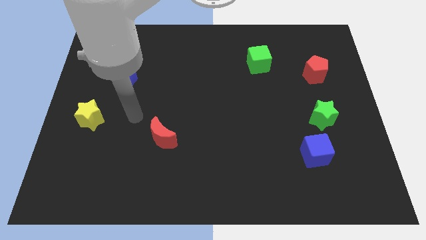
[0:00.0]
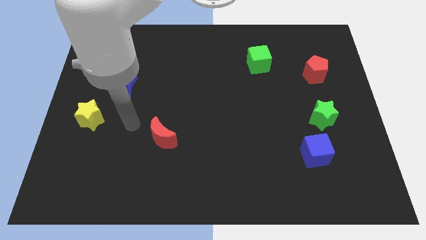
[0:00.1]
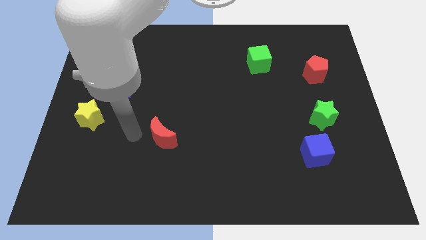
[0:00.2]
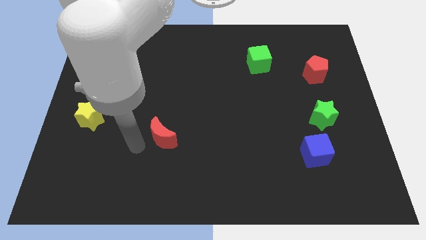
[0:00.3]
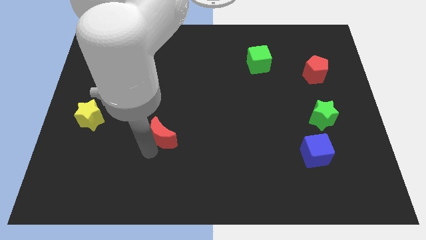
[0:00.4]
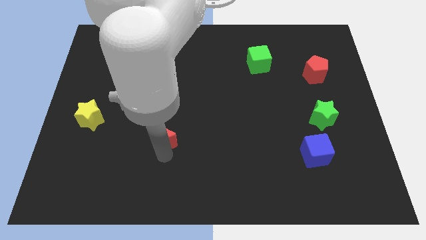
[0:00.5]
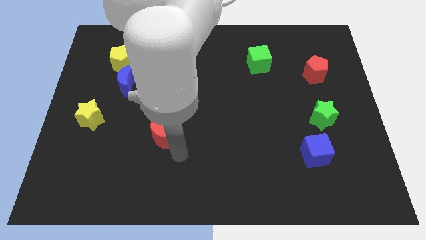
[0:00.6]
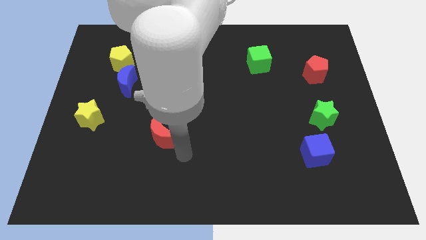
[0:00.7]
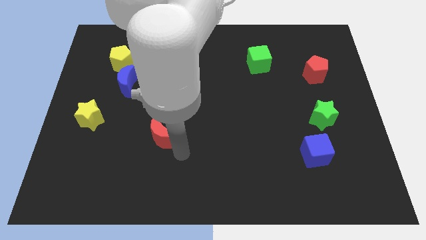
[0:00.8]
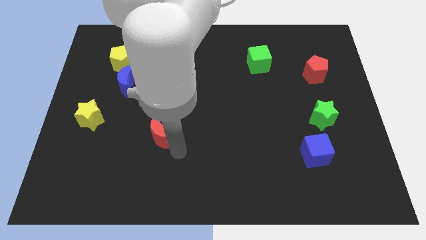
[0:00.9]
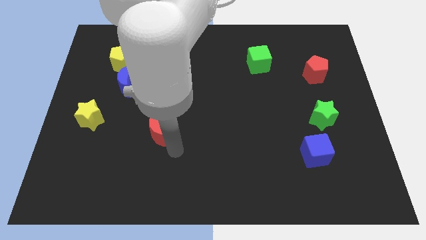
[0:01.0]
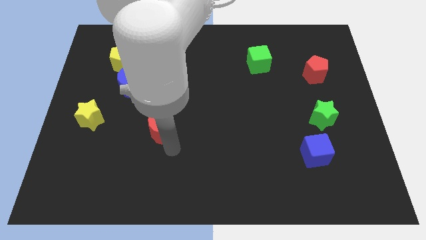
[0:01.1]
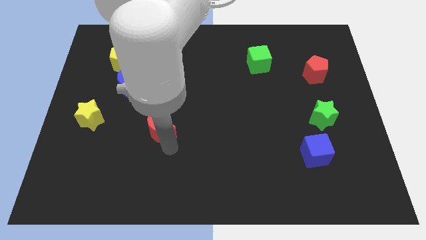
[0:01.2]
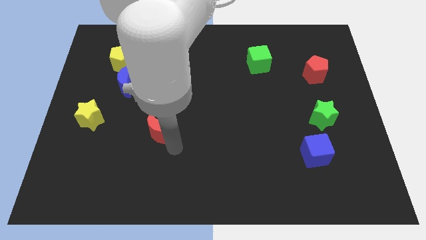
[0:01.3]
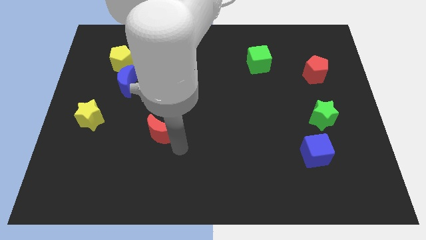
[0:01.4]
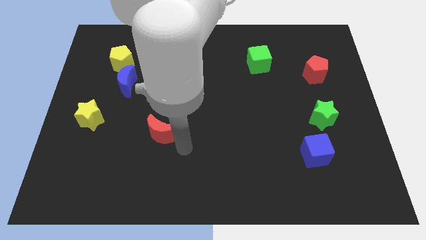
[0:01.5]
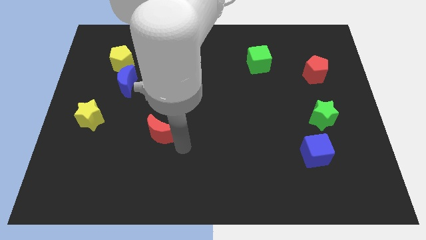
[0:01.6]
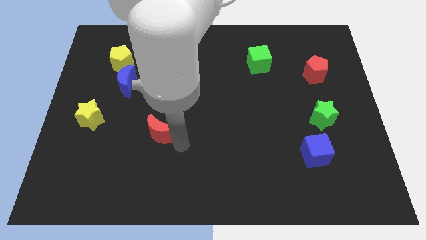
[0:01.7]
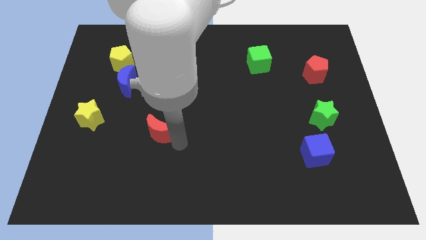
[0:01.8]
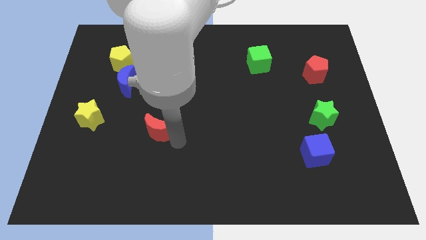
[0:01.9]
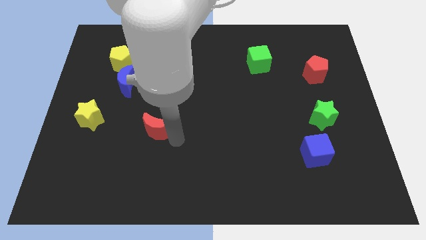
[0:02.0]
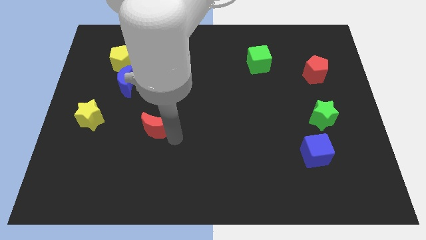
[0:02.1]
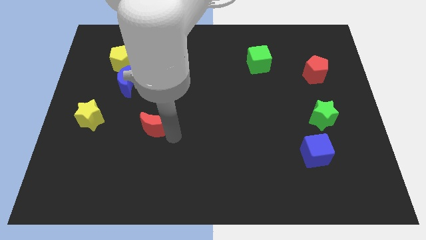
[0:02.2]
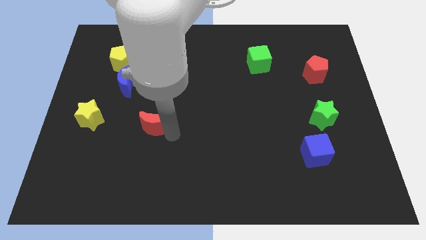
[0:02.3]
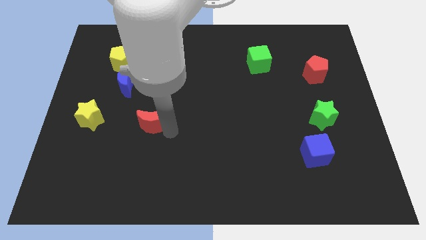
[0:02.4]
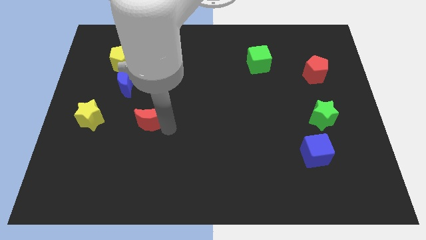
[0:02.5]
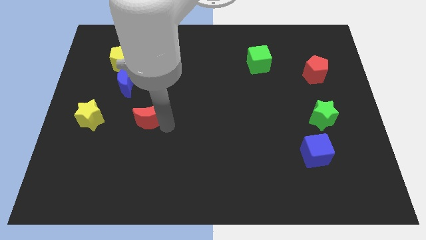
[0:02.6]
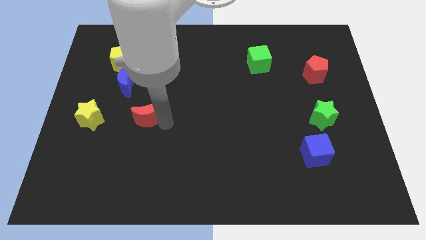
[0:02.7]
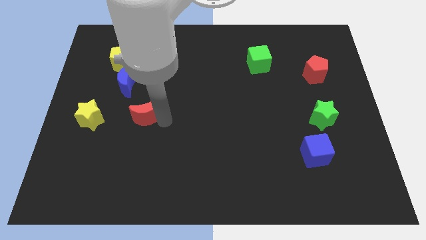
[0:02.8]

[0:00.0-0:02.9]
slightly slide the red moon diagonally up and to the left

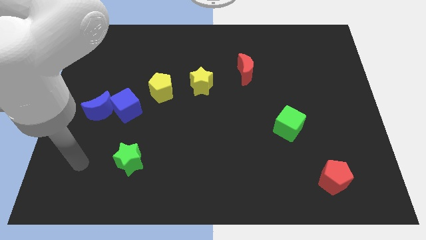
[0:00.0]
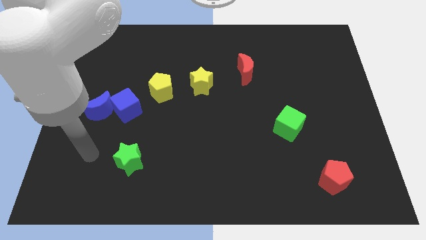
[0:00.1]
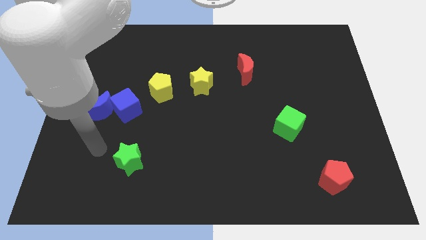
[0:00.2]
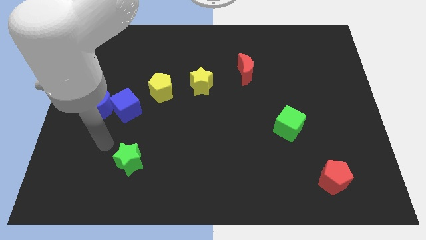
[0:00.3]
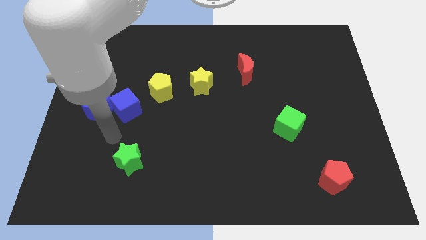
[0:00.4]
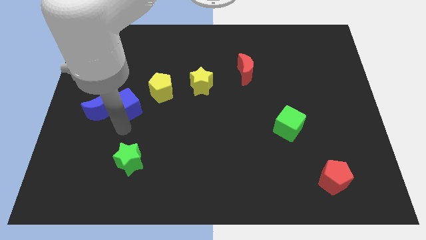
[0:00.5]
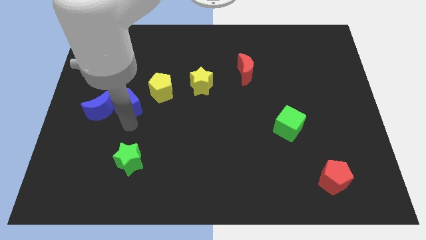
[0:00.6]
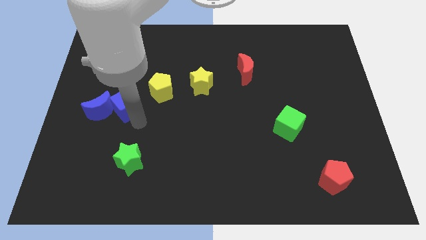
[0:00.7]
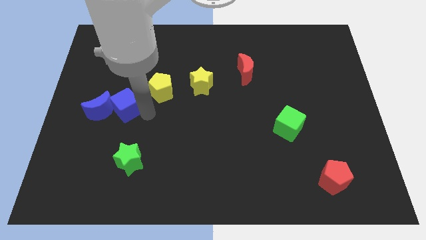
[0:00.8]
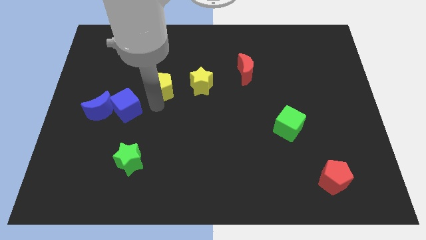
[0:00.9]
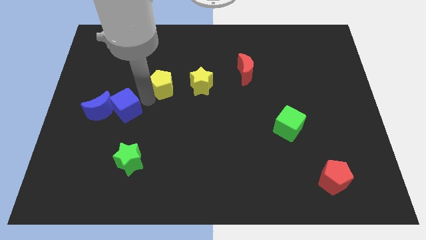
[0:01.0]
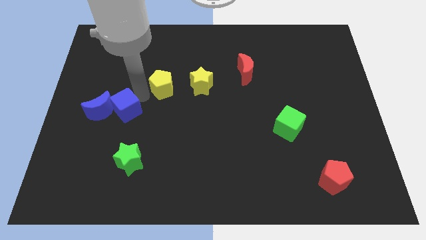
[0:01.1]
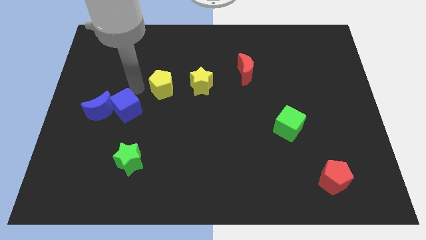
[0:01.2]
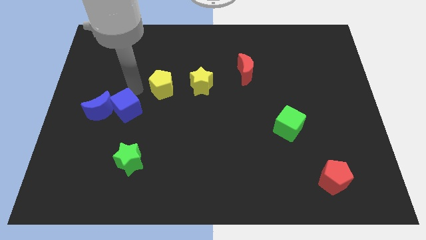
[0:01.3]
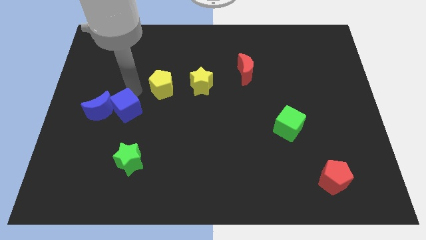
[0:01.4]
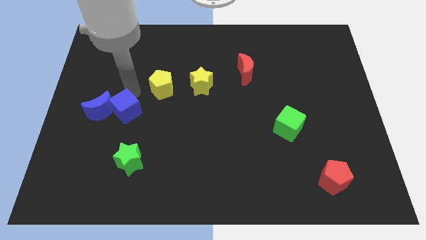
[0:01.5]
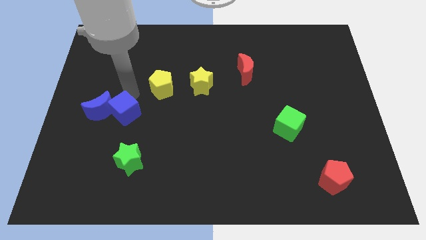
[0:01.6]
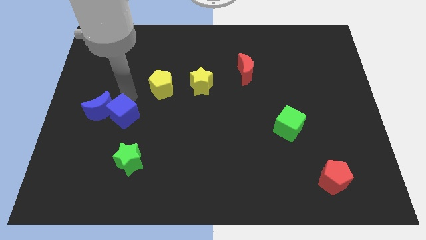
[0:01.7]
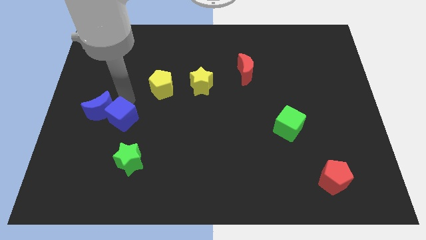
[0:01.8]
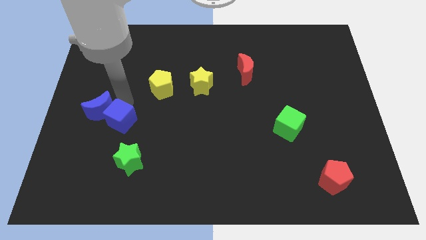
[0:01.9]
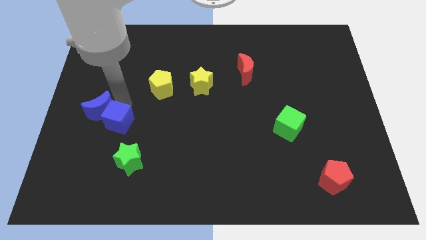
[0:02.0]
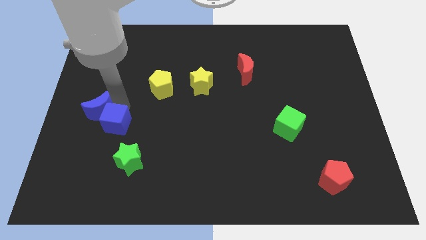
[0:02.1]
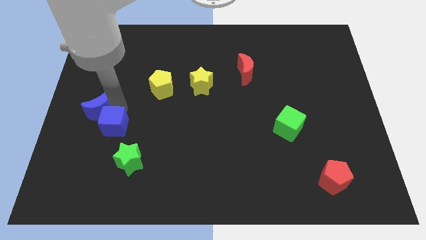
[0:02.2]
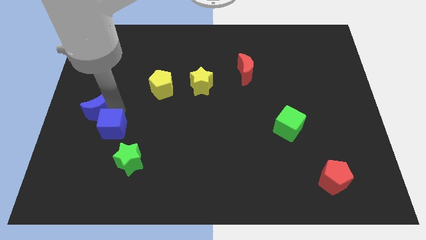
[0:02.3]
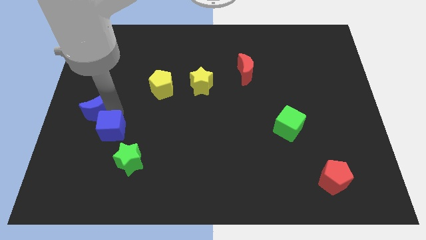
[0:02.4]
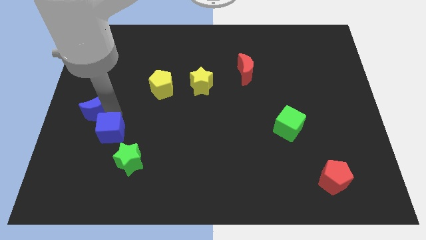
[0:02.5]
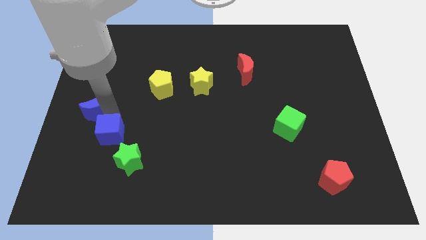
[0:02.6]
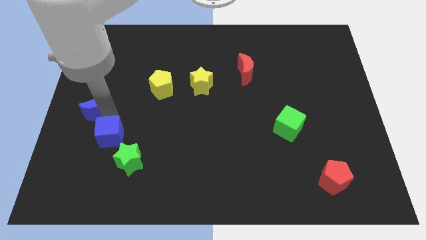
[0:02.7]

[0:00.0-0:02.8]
slide the blue cube slightly downwards

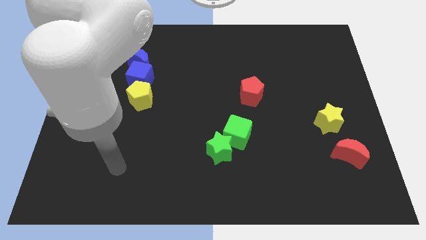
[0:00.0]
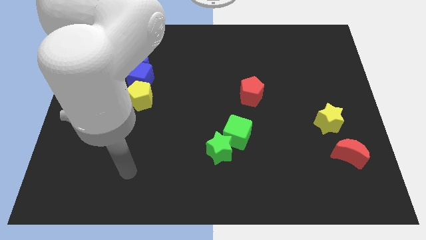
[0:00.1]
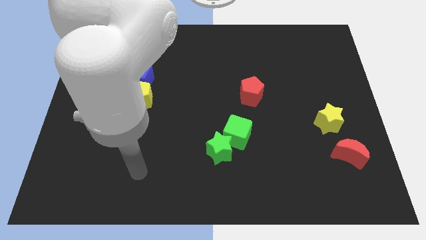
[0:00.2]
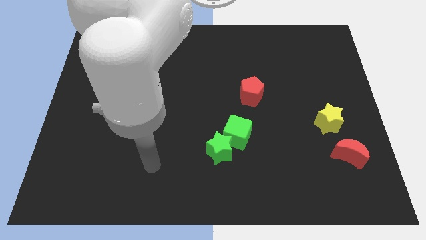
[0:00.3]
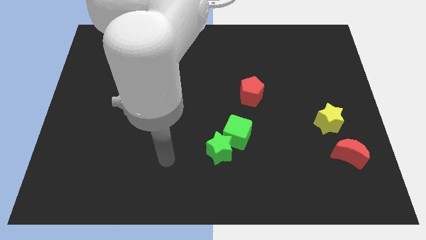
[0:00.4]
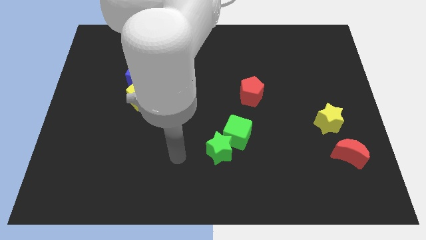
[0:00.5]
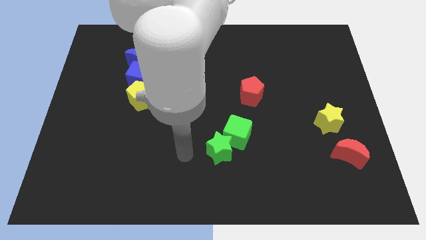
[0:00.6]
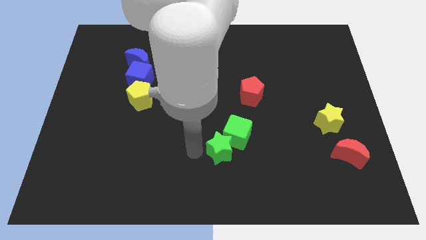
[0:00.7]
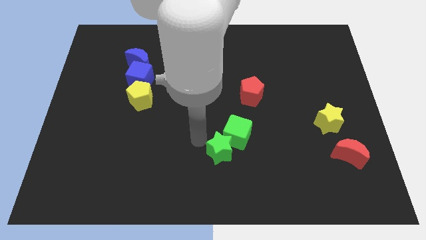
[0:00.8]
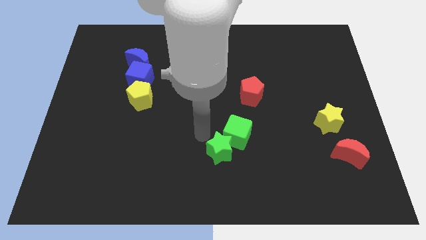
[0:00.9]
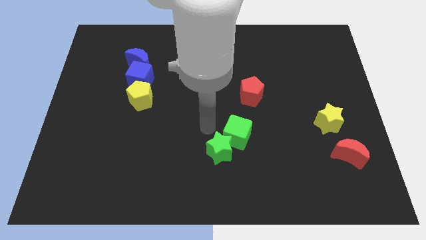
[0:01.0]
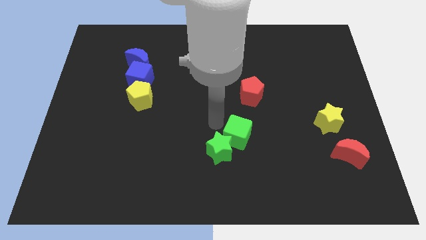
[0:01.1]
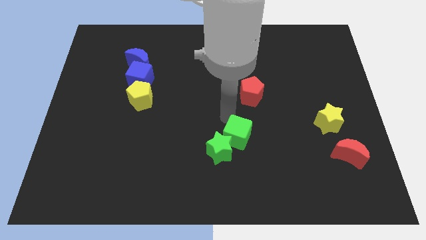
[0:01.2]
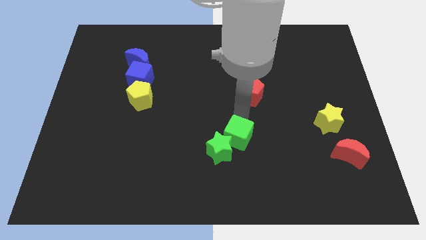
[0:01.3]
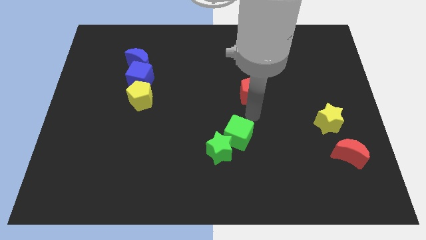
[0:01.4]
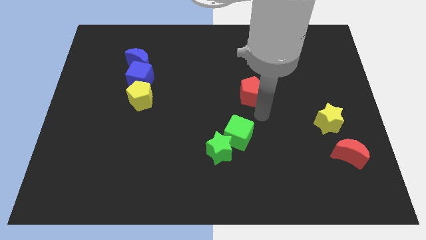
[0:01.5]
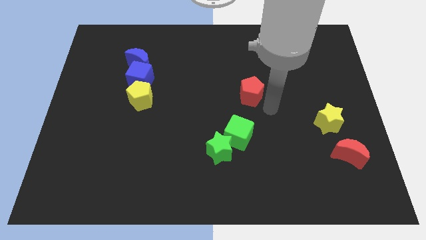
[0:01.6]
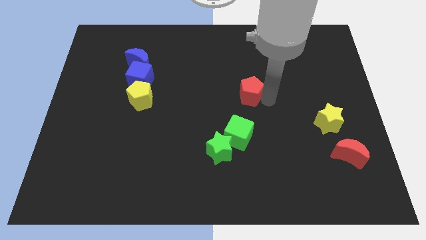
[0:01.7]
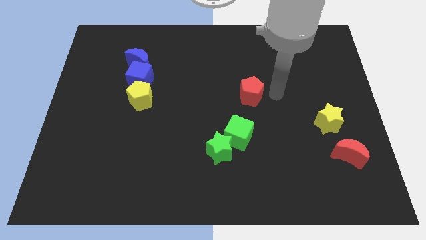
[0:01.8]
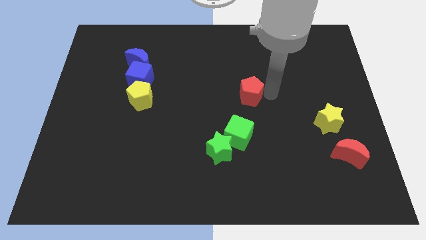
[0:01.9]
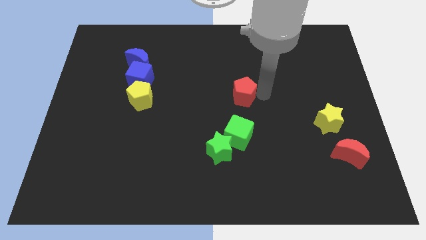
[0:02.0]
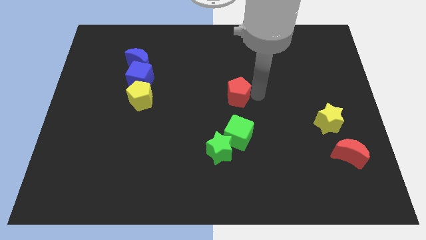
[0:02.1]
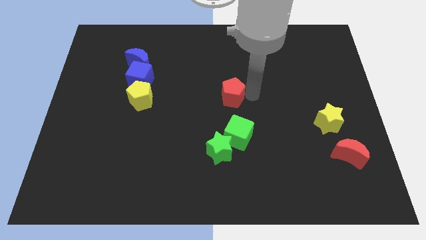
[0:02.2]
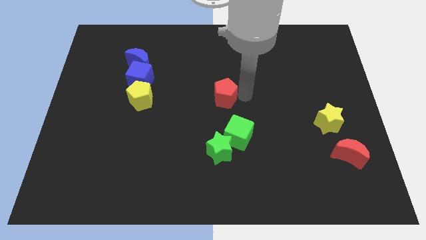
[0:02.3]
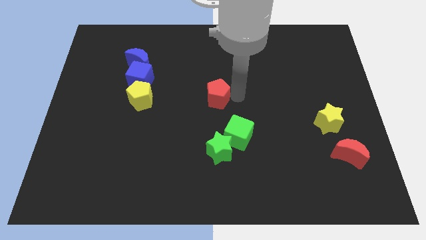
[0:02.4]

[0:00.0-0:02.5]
slightly slide the red pentagon to the left
